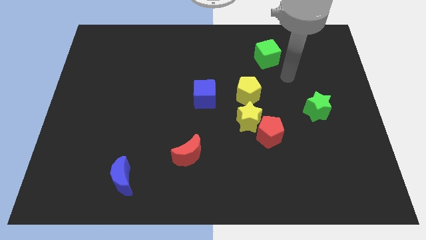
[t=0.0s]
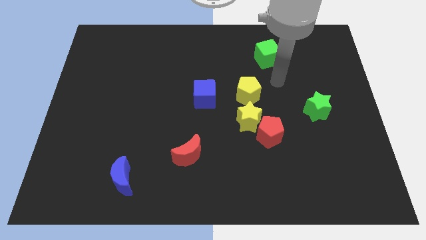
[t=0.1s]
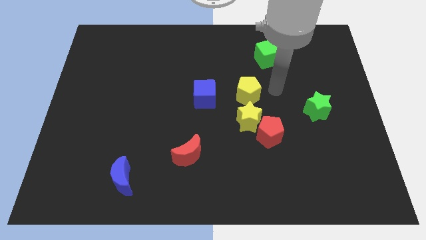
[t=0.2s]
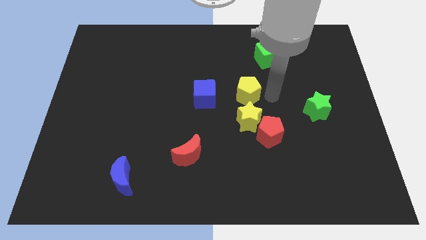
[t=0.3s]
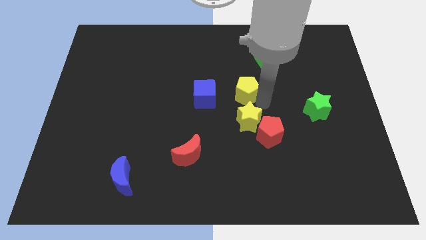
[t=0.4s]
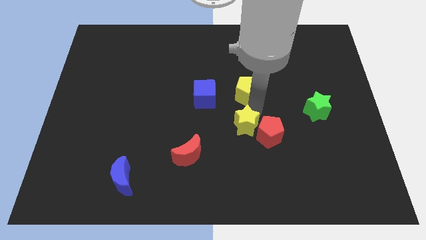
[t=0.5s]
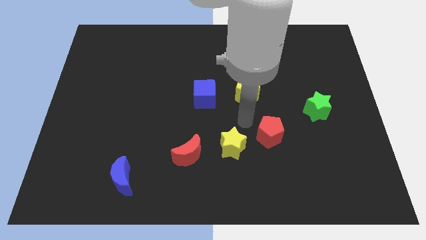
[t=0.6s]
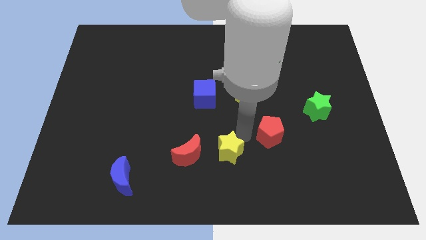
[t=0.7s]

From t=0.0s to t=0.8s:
move the red pentagon away from the yellow star

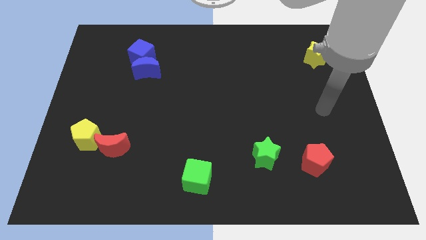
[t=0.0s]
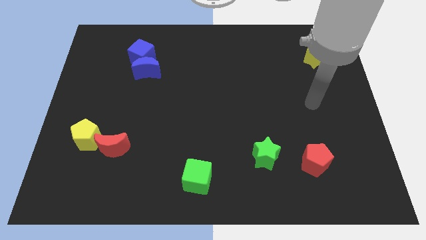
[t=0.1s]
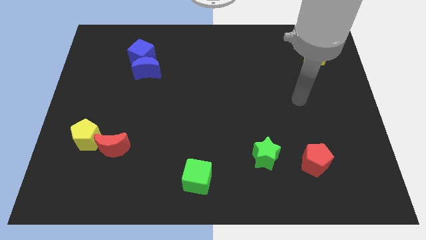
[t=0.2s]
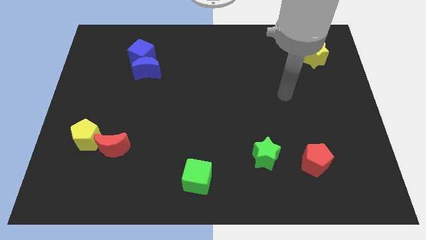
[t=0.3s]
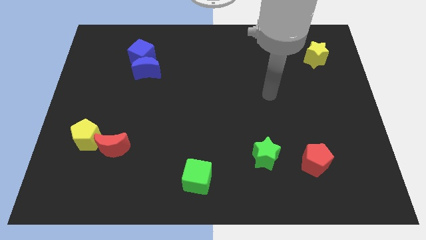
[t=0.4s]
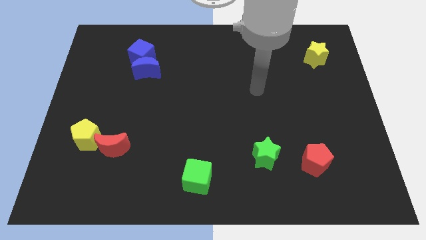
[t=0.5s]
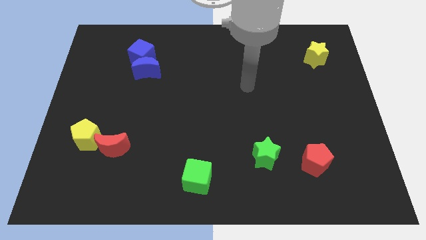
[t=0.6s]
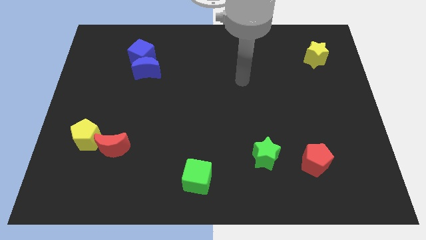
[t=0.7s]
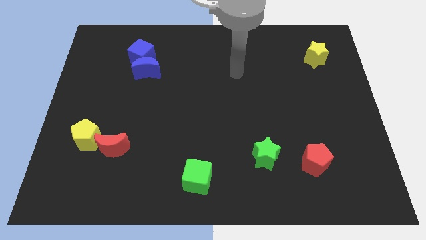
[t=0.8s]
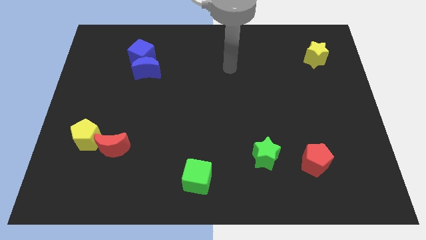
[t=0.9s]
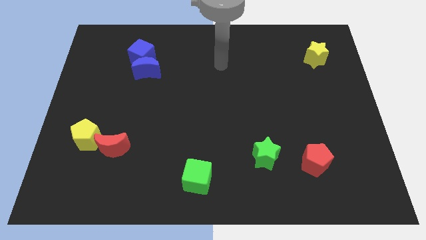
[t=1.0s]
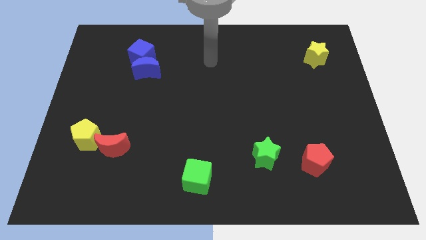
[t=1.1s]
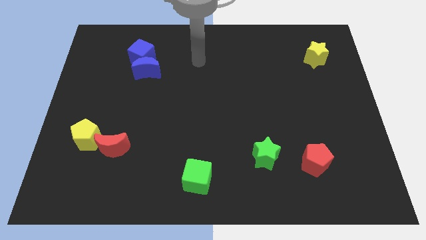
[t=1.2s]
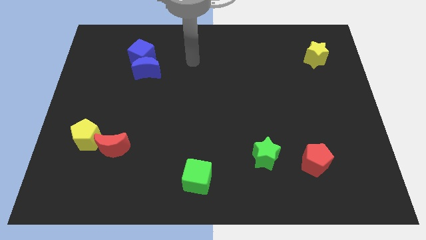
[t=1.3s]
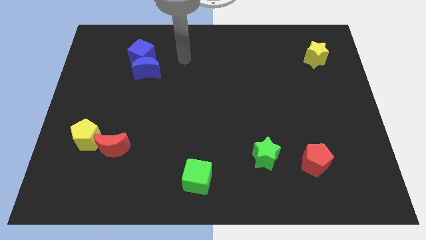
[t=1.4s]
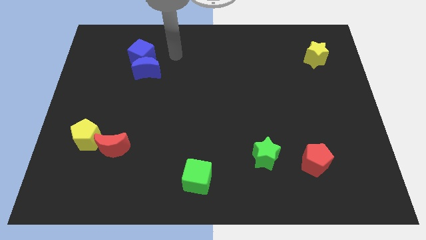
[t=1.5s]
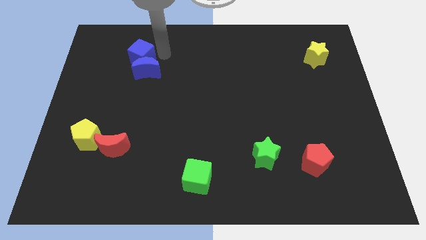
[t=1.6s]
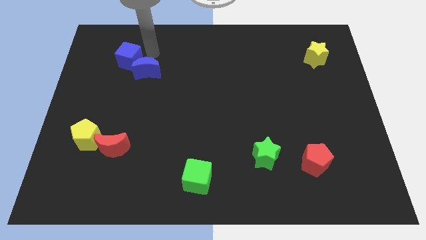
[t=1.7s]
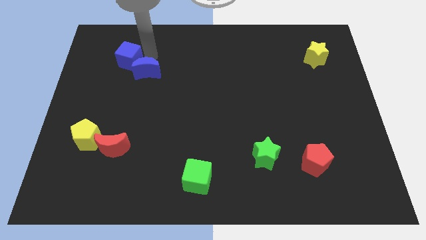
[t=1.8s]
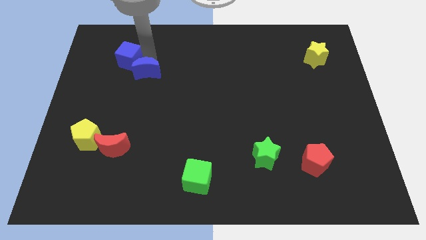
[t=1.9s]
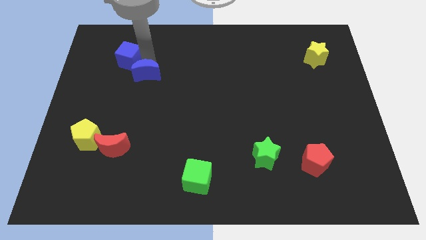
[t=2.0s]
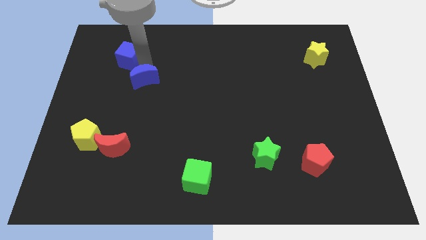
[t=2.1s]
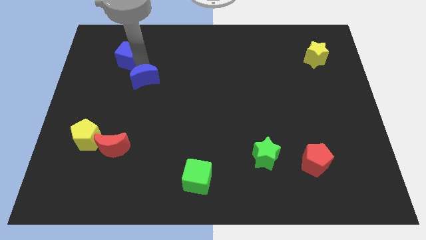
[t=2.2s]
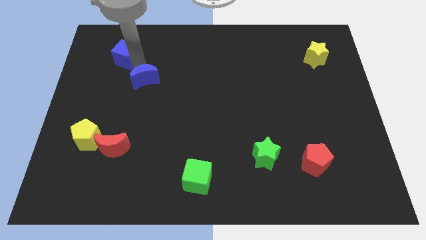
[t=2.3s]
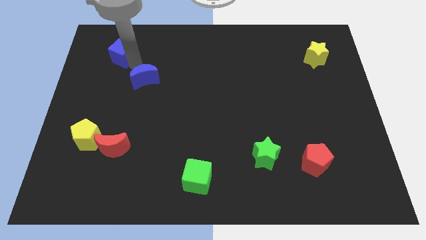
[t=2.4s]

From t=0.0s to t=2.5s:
separate the blue moon from the blue cube

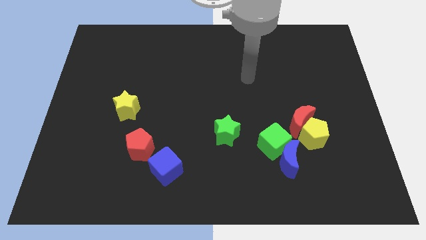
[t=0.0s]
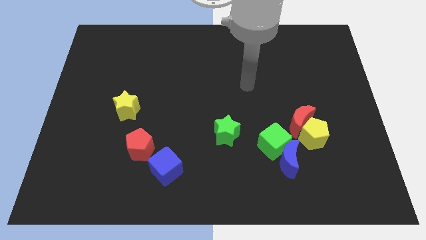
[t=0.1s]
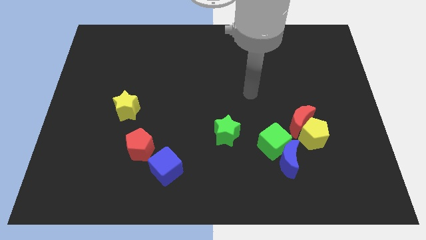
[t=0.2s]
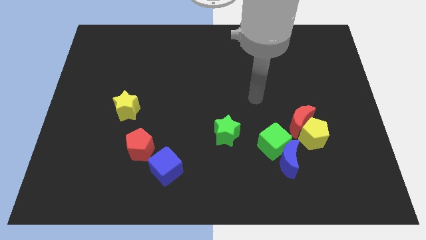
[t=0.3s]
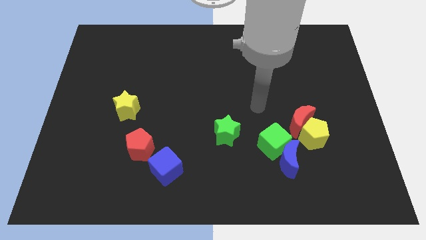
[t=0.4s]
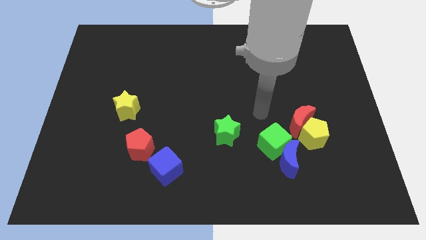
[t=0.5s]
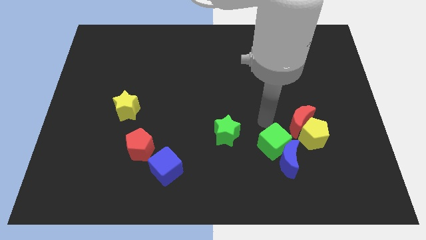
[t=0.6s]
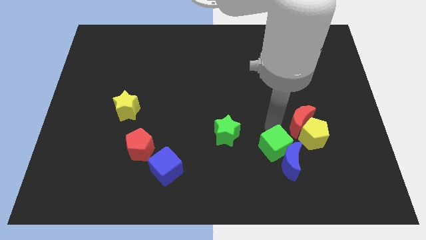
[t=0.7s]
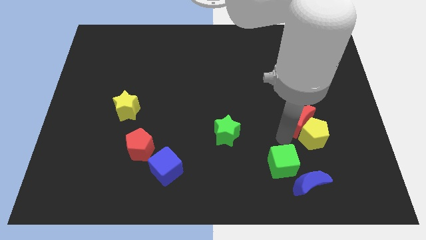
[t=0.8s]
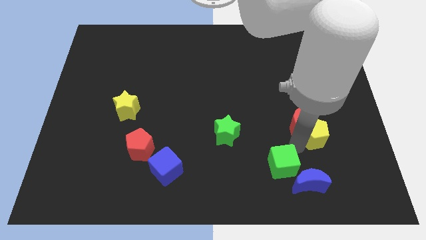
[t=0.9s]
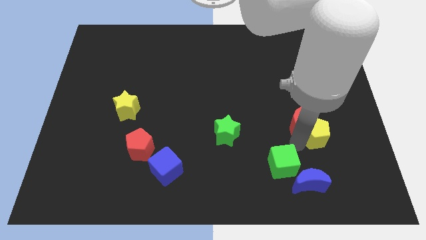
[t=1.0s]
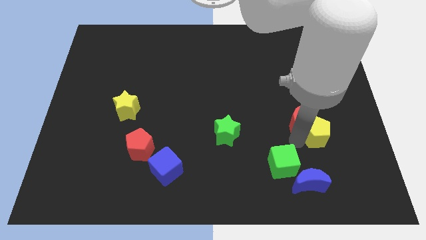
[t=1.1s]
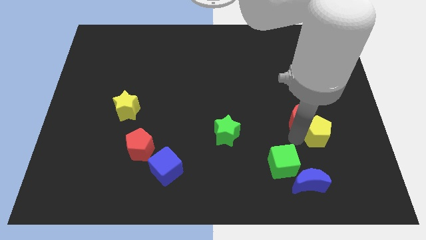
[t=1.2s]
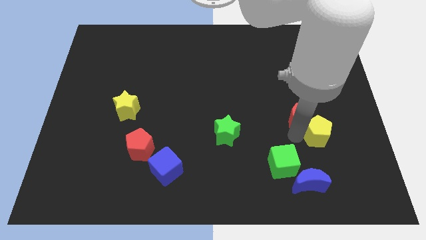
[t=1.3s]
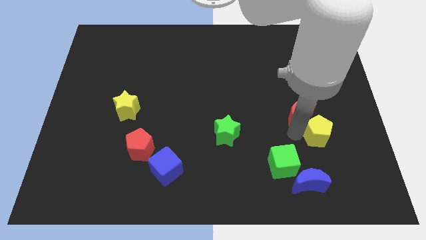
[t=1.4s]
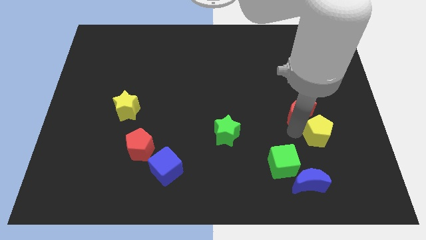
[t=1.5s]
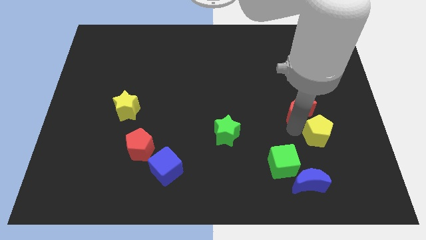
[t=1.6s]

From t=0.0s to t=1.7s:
move the red moon away from the yellow pentagon and green cube

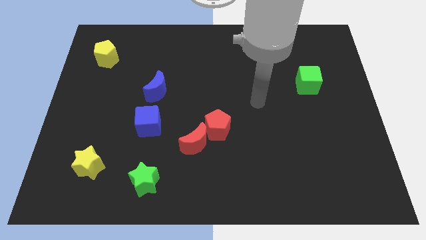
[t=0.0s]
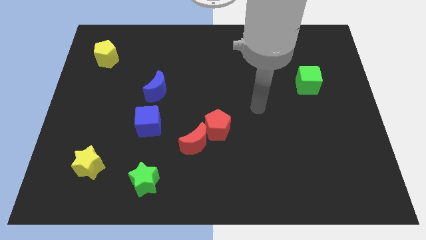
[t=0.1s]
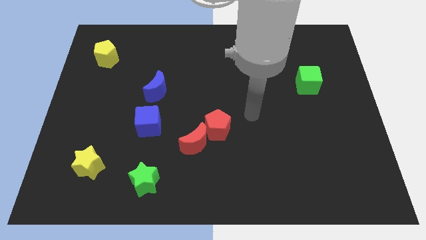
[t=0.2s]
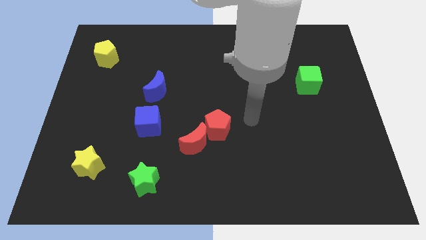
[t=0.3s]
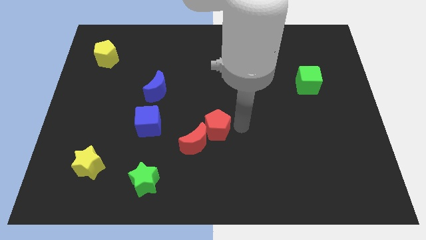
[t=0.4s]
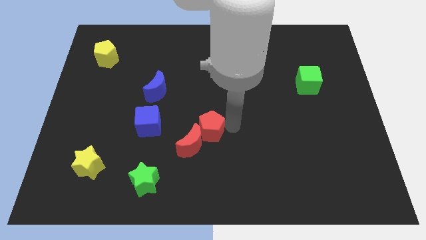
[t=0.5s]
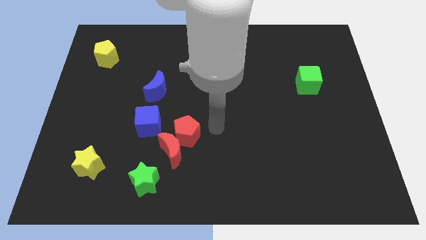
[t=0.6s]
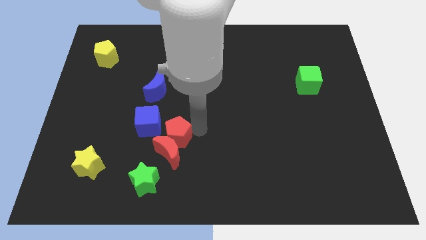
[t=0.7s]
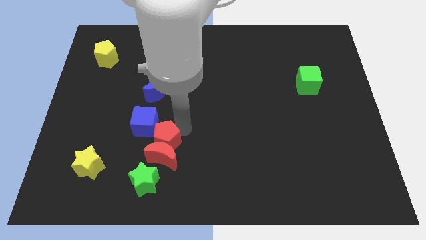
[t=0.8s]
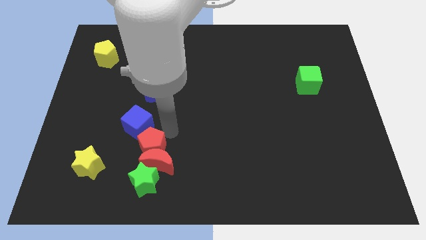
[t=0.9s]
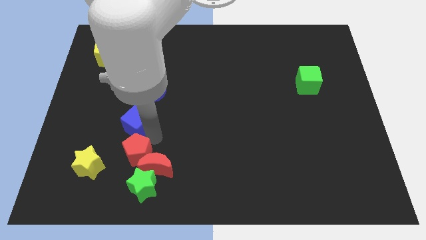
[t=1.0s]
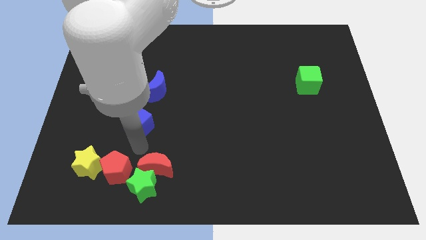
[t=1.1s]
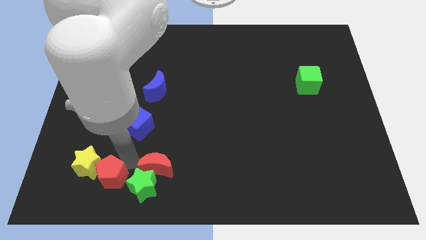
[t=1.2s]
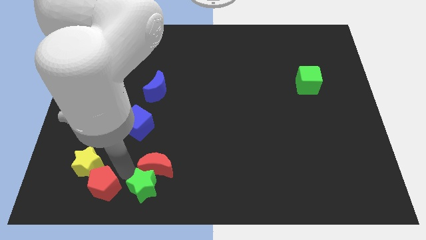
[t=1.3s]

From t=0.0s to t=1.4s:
pull the red moon apart from the red pentagon

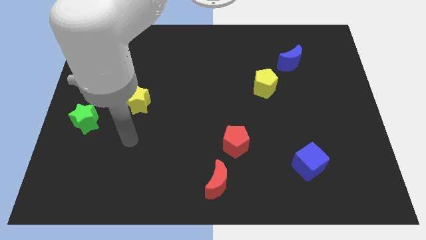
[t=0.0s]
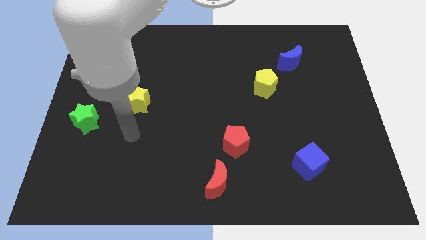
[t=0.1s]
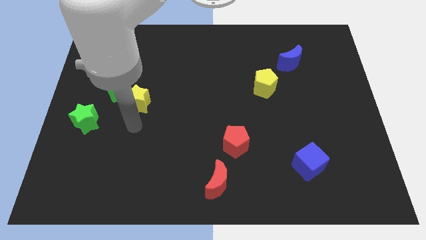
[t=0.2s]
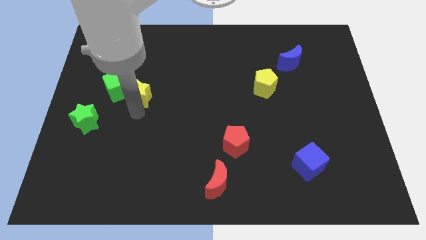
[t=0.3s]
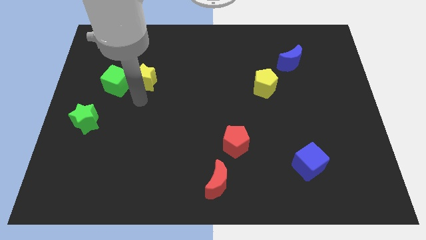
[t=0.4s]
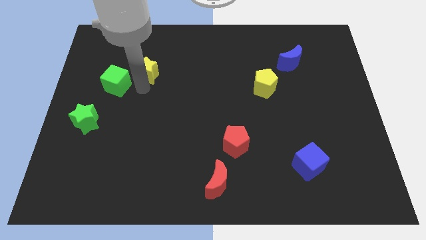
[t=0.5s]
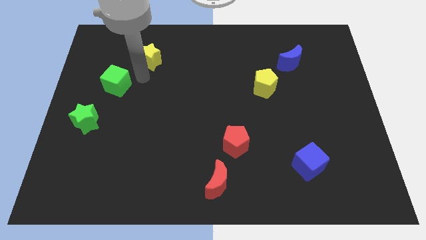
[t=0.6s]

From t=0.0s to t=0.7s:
pull the green cube apart from the yellow star

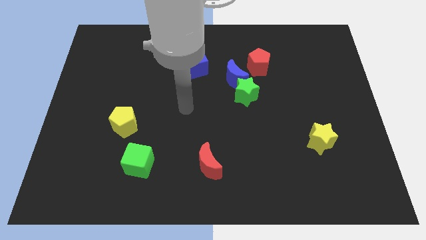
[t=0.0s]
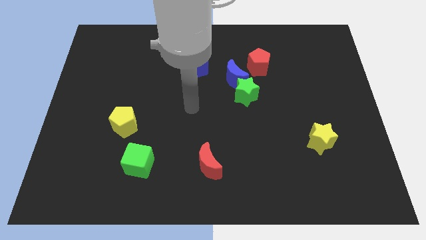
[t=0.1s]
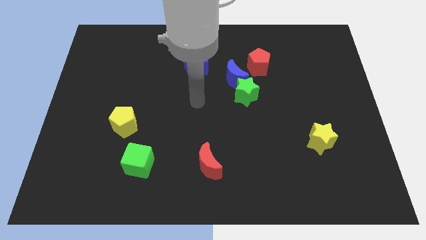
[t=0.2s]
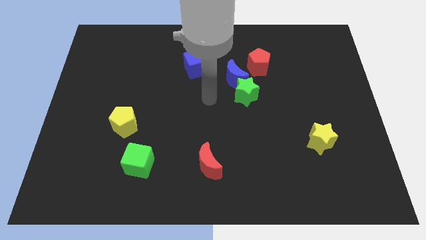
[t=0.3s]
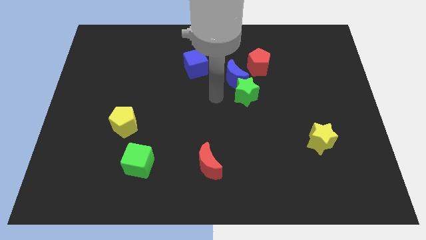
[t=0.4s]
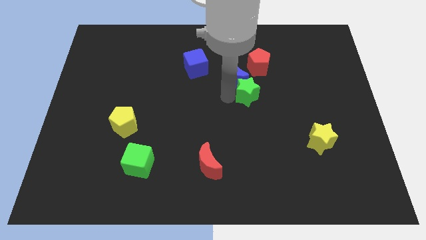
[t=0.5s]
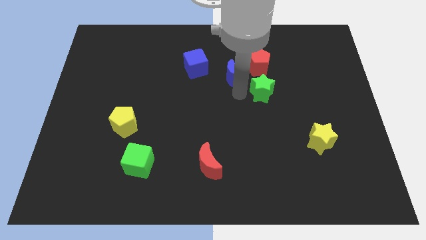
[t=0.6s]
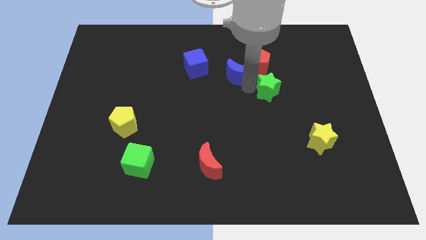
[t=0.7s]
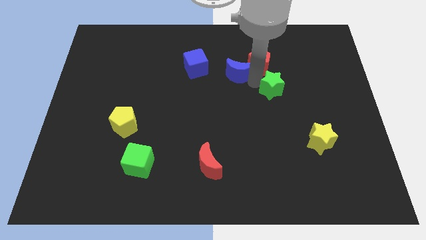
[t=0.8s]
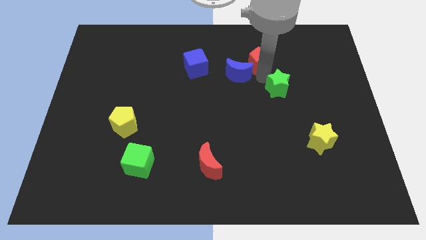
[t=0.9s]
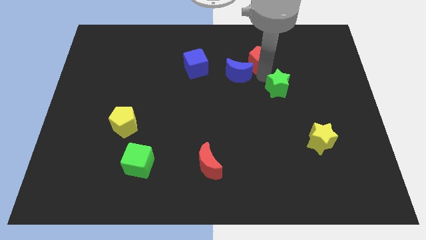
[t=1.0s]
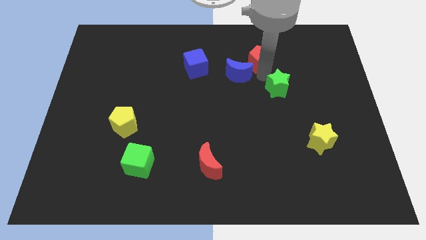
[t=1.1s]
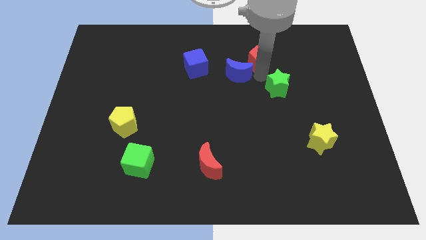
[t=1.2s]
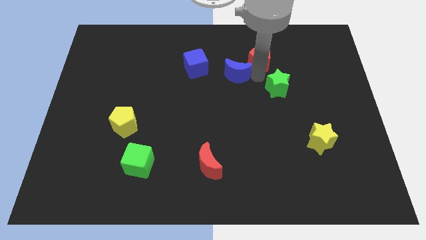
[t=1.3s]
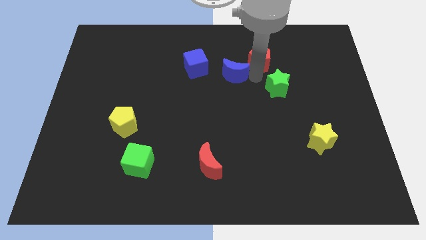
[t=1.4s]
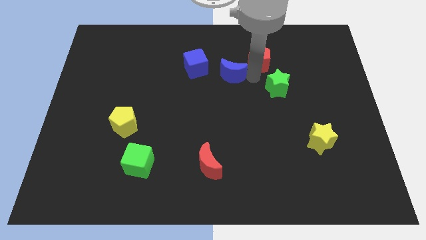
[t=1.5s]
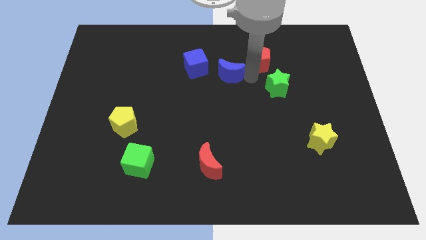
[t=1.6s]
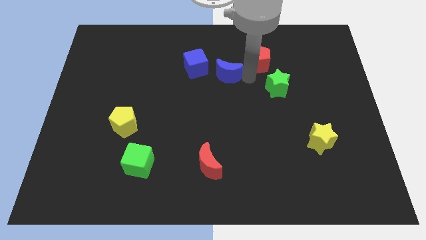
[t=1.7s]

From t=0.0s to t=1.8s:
pull the blue moon apart from the green star and red pentagon

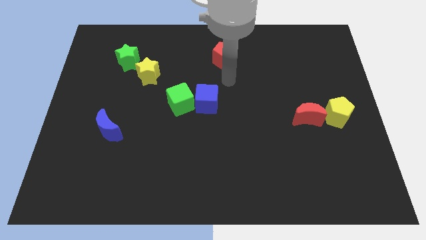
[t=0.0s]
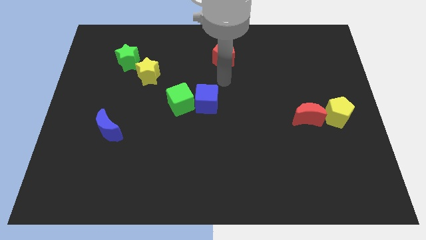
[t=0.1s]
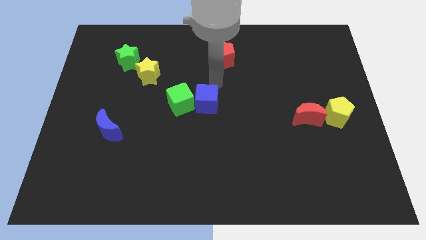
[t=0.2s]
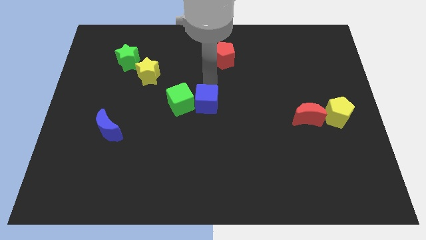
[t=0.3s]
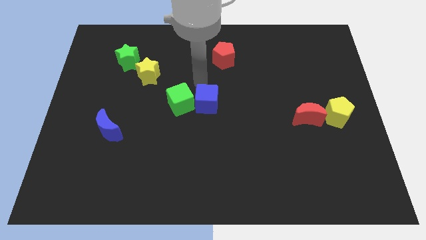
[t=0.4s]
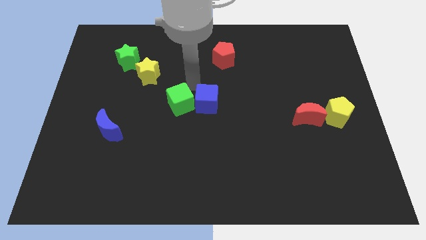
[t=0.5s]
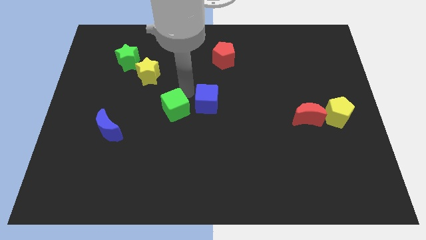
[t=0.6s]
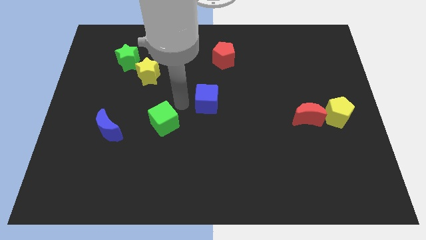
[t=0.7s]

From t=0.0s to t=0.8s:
move the blue cube away from the green cube
